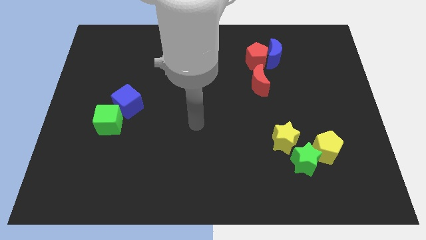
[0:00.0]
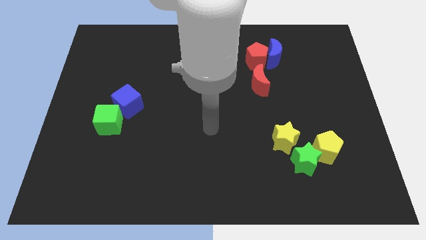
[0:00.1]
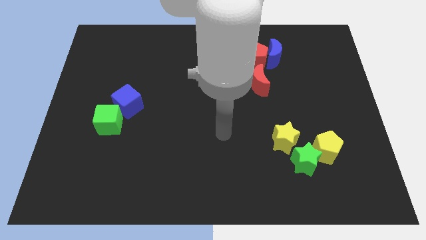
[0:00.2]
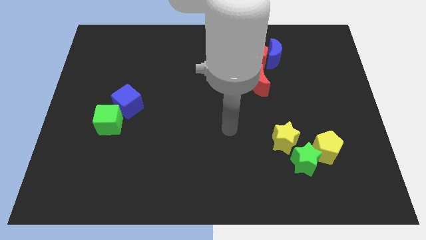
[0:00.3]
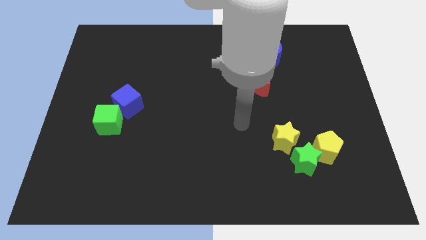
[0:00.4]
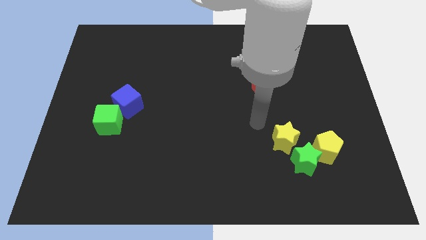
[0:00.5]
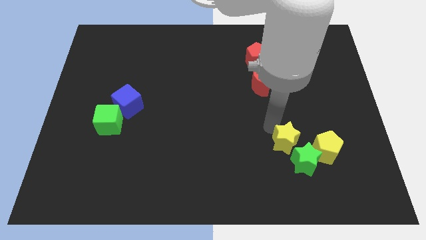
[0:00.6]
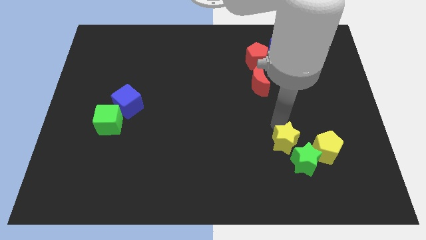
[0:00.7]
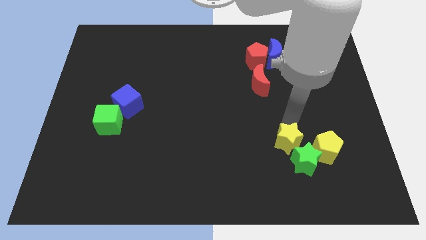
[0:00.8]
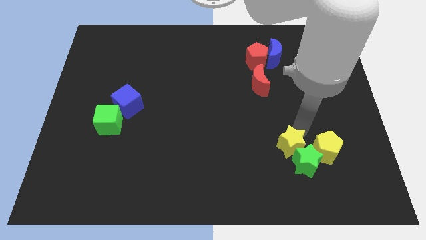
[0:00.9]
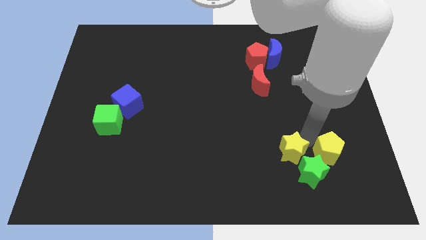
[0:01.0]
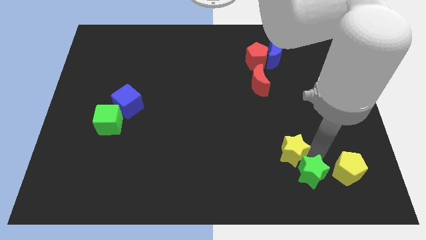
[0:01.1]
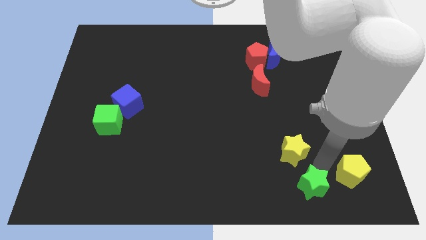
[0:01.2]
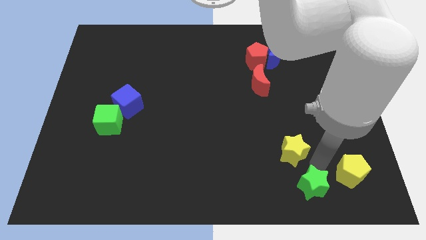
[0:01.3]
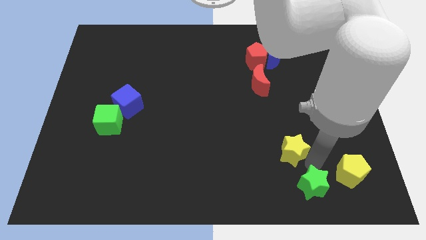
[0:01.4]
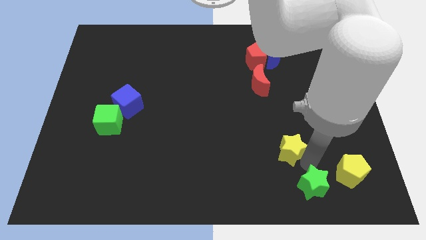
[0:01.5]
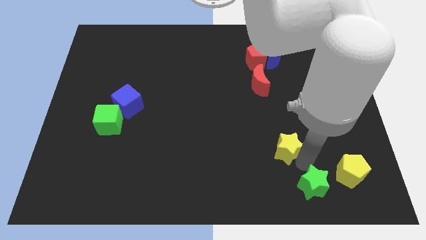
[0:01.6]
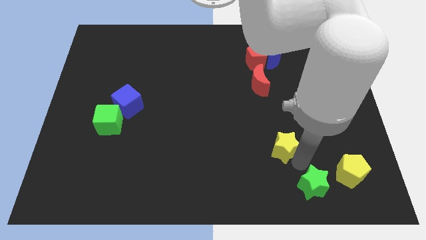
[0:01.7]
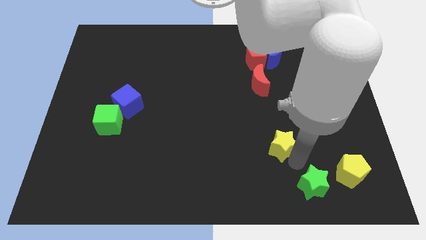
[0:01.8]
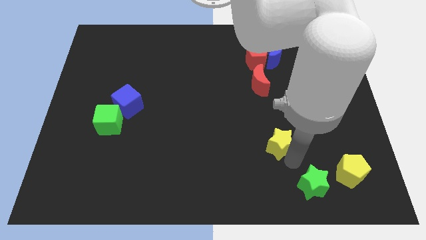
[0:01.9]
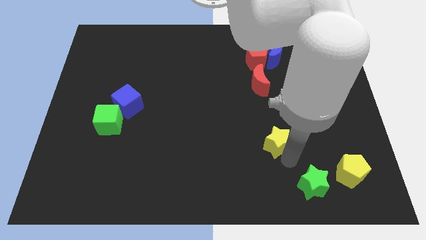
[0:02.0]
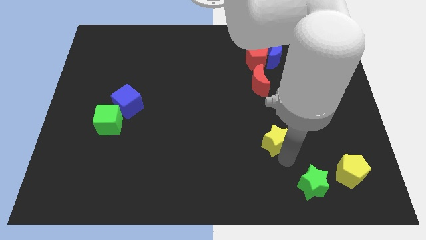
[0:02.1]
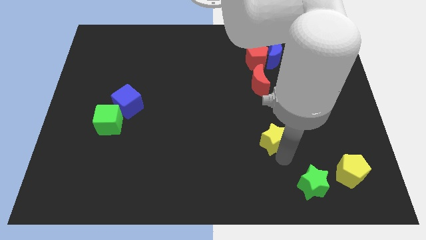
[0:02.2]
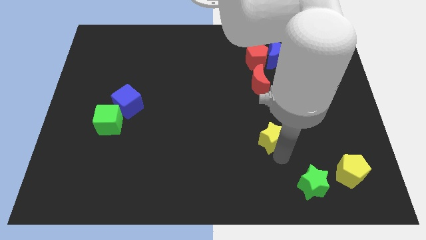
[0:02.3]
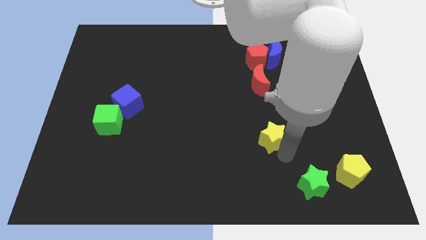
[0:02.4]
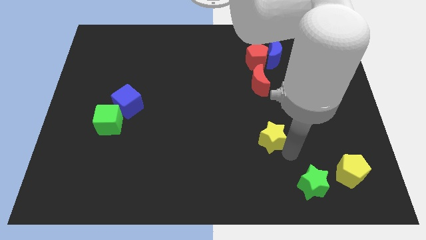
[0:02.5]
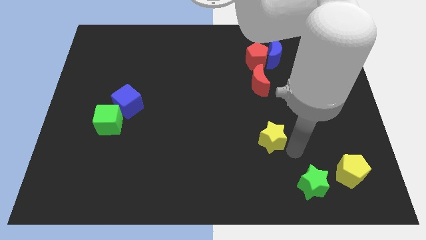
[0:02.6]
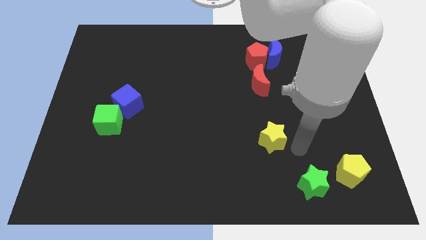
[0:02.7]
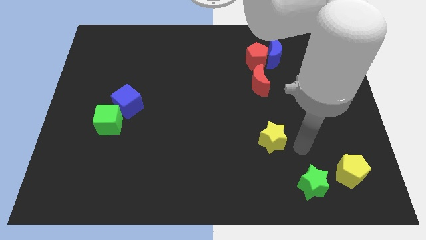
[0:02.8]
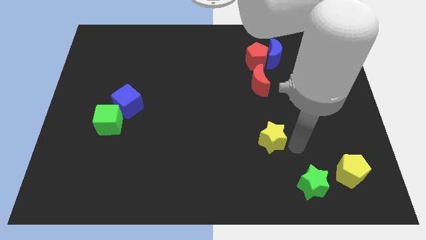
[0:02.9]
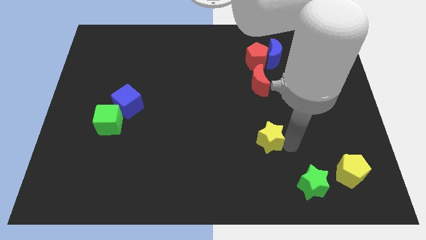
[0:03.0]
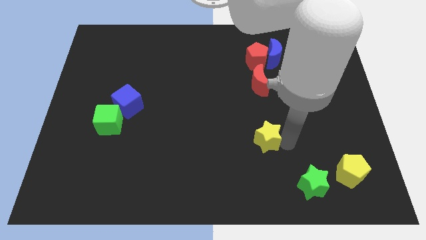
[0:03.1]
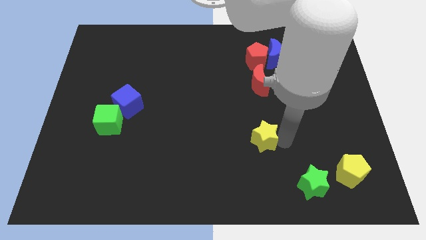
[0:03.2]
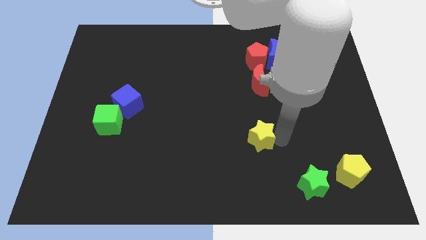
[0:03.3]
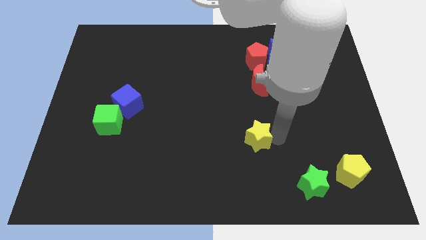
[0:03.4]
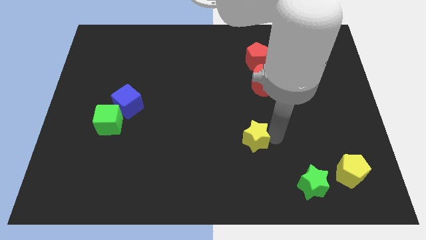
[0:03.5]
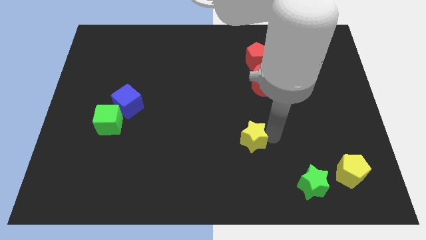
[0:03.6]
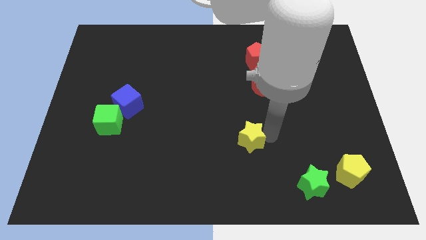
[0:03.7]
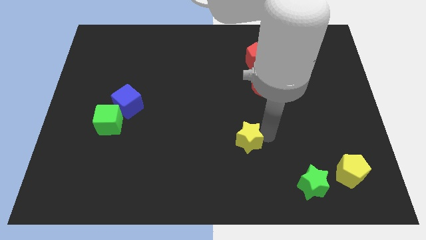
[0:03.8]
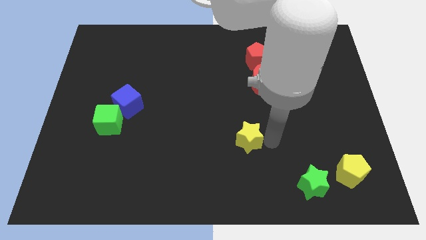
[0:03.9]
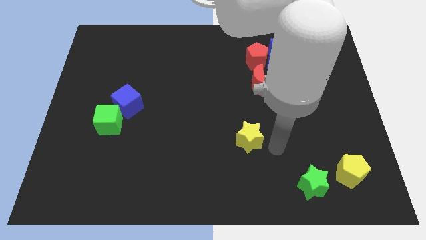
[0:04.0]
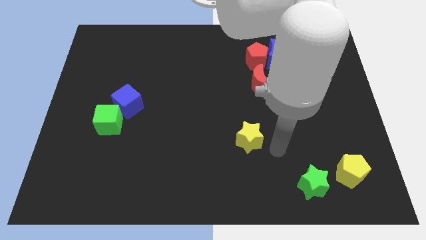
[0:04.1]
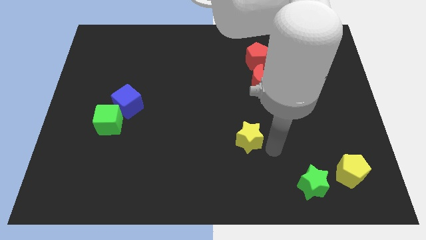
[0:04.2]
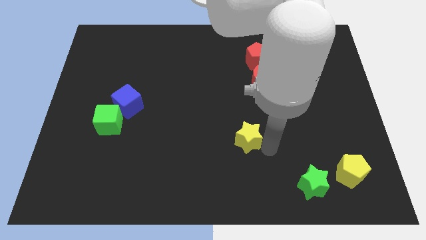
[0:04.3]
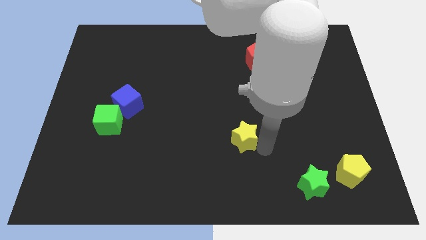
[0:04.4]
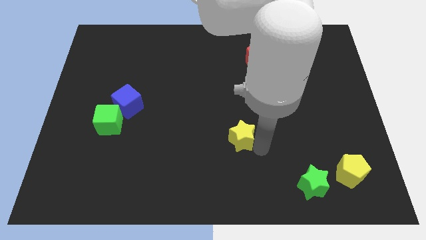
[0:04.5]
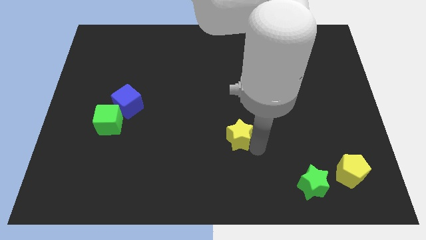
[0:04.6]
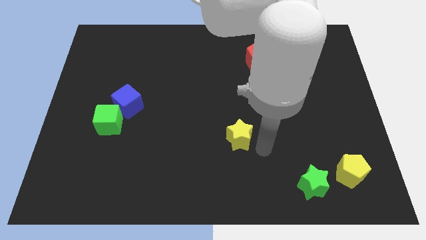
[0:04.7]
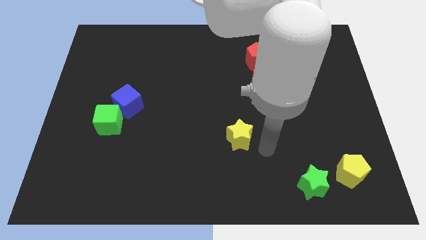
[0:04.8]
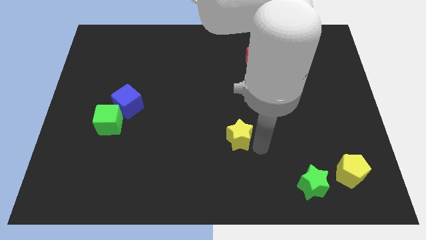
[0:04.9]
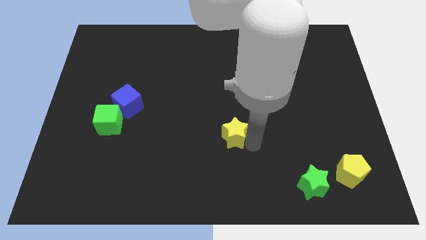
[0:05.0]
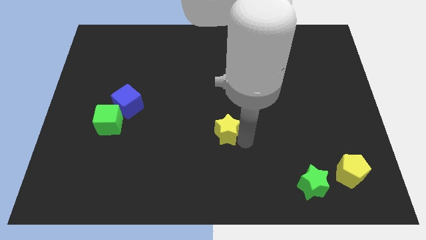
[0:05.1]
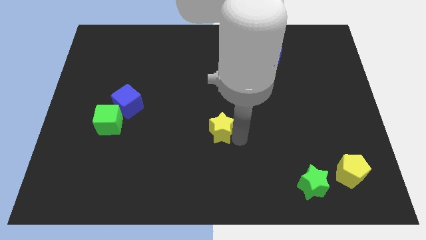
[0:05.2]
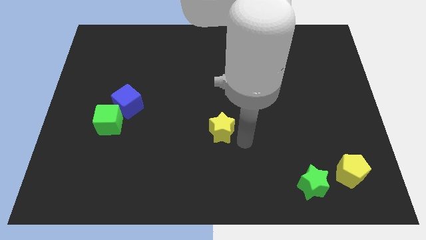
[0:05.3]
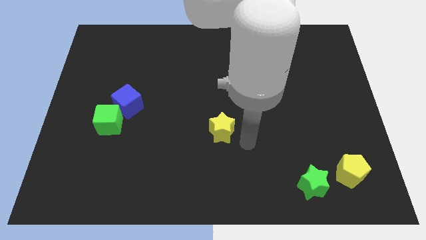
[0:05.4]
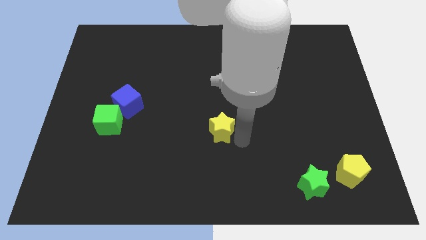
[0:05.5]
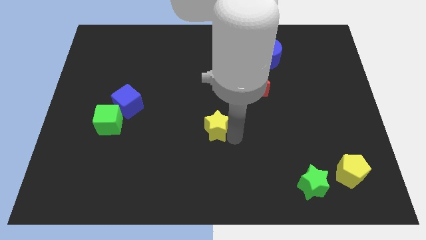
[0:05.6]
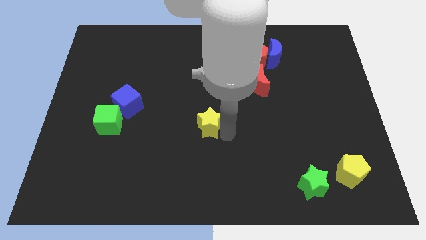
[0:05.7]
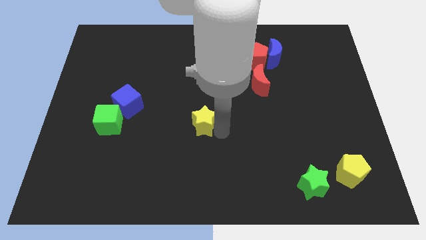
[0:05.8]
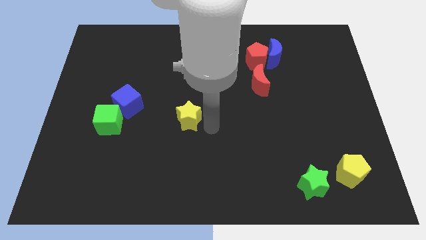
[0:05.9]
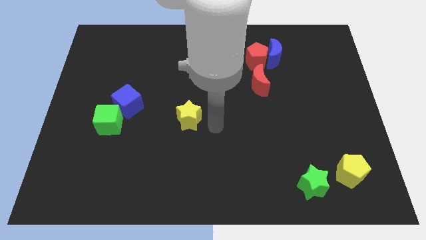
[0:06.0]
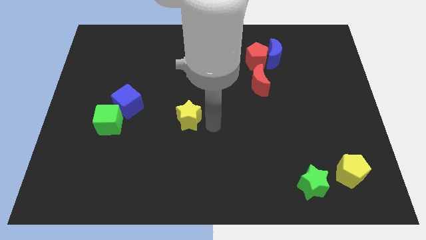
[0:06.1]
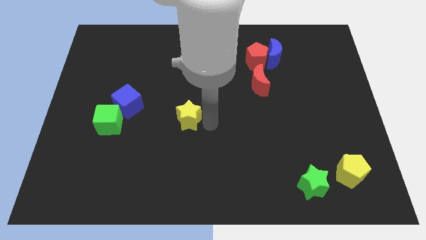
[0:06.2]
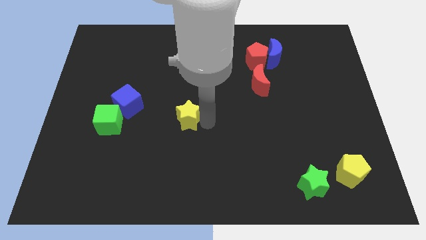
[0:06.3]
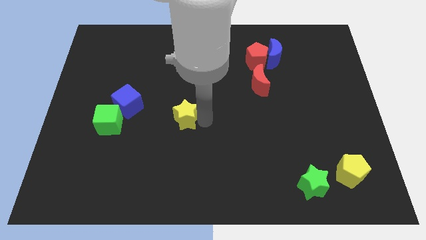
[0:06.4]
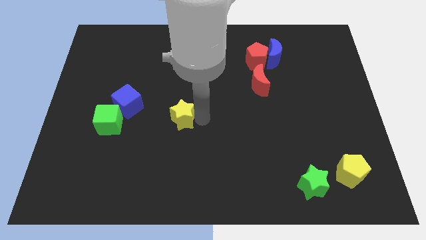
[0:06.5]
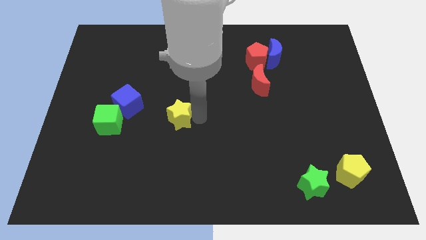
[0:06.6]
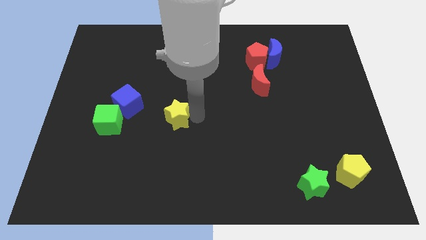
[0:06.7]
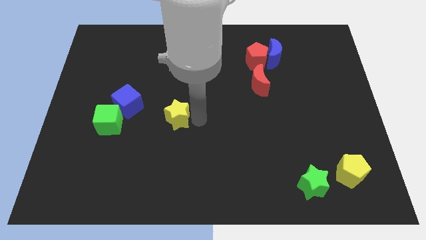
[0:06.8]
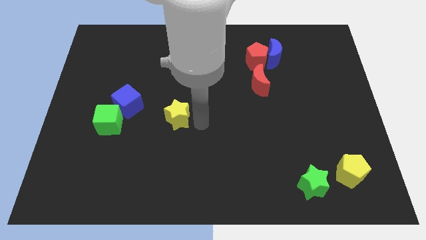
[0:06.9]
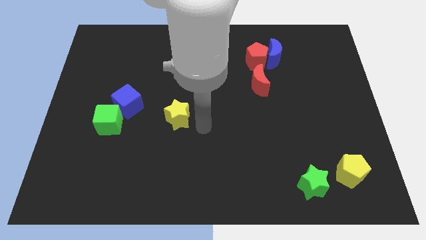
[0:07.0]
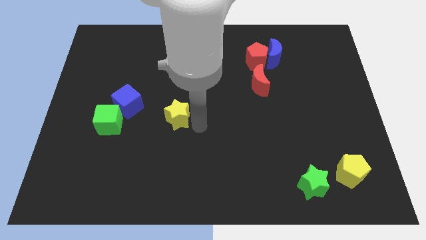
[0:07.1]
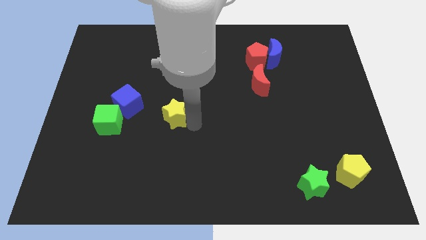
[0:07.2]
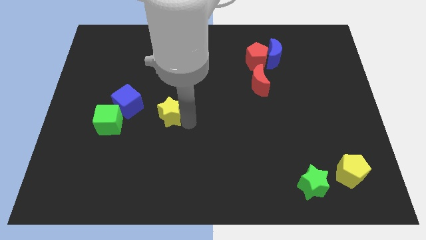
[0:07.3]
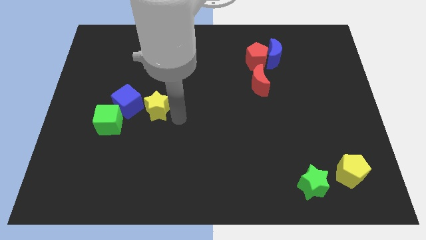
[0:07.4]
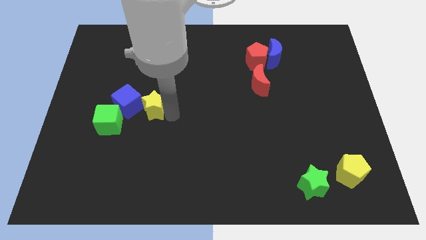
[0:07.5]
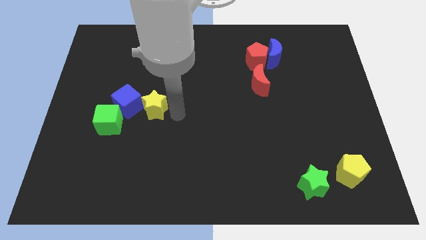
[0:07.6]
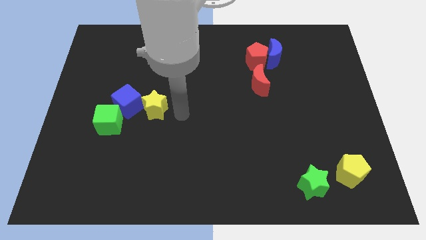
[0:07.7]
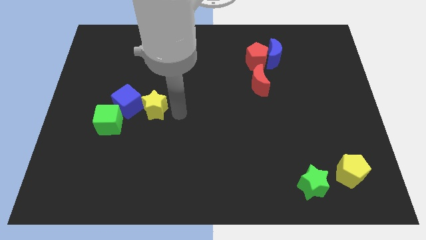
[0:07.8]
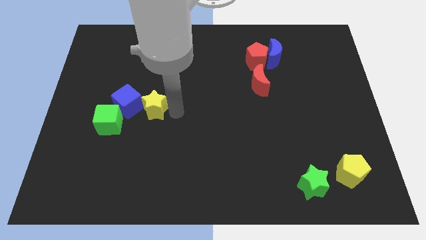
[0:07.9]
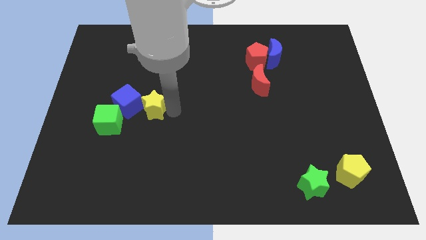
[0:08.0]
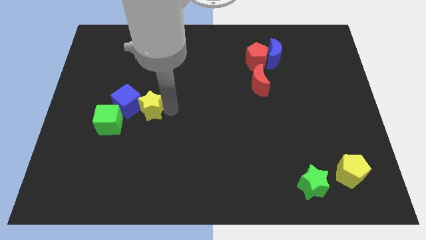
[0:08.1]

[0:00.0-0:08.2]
slide the yellow star close to the blue cube
